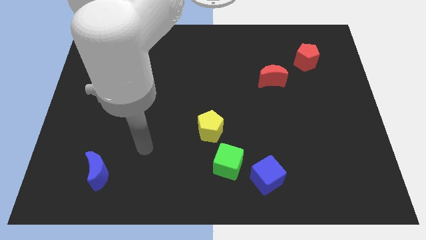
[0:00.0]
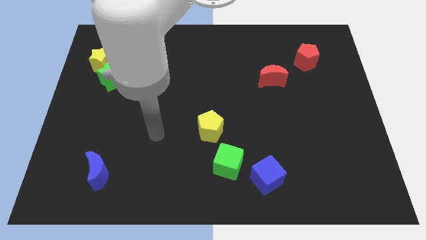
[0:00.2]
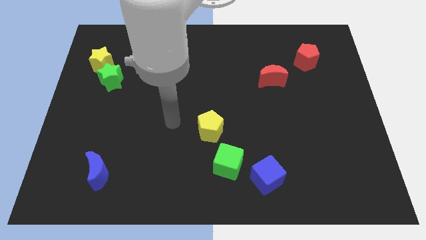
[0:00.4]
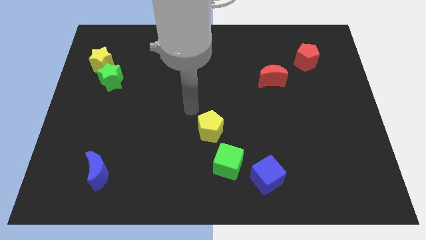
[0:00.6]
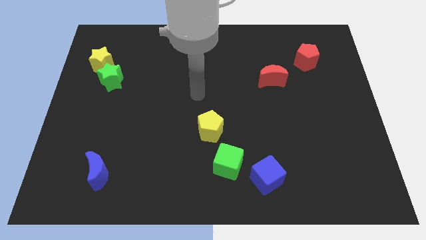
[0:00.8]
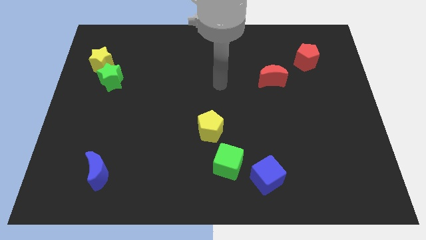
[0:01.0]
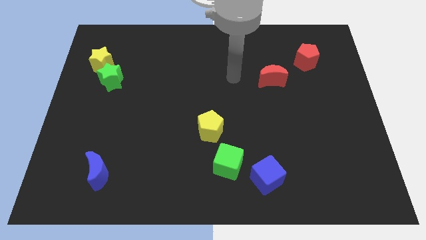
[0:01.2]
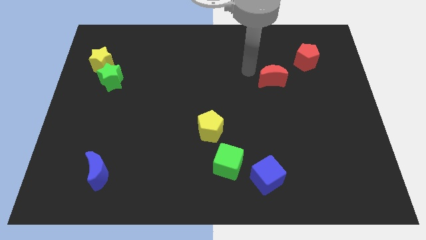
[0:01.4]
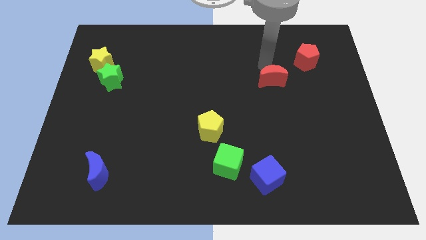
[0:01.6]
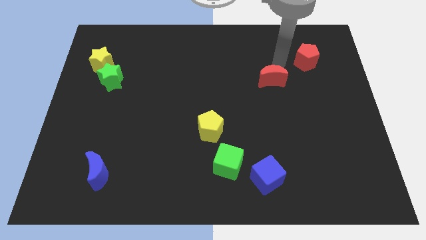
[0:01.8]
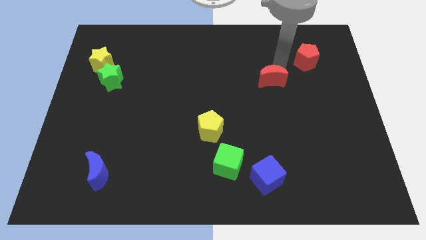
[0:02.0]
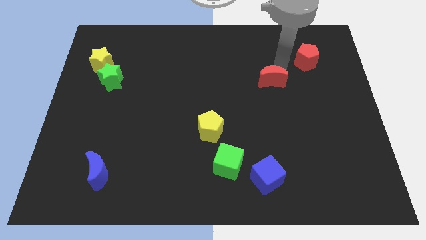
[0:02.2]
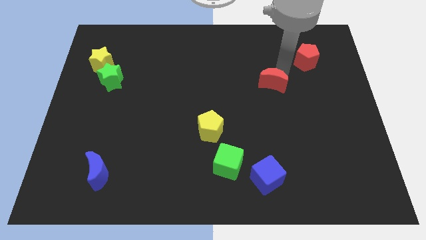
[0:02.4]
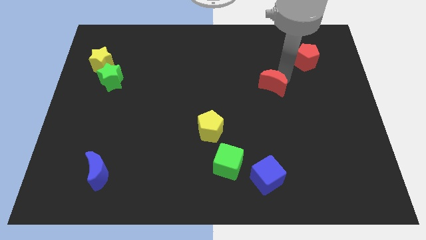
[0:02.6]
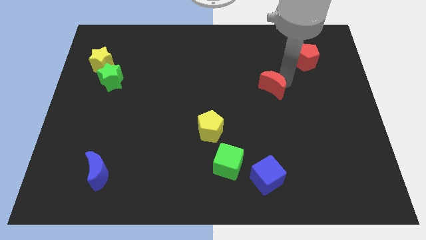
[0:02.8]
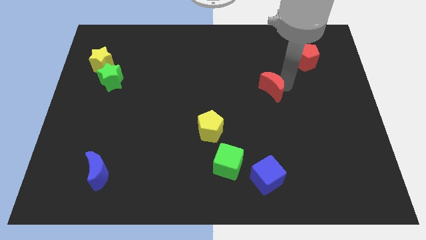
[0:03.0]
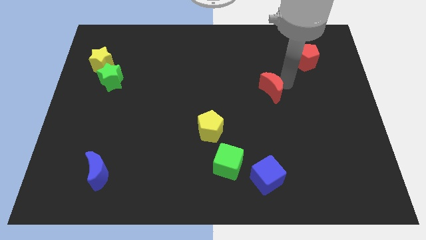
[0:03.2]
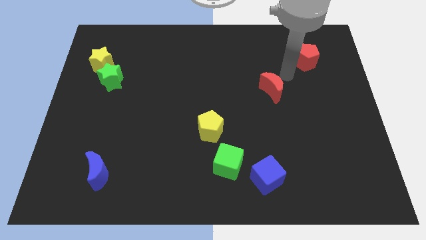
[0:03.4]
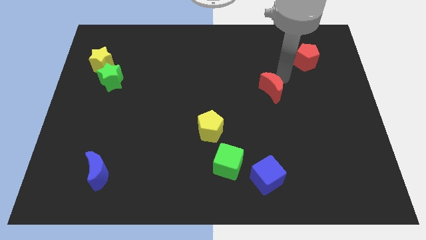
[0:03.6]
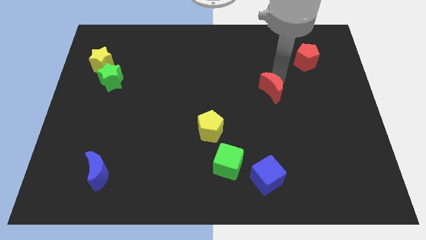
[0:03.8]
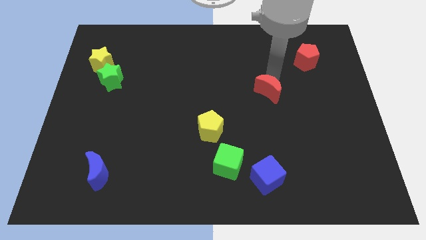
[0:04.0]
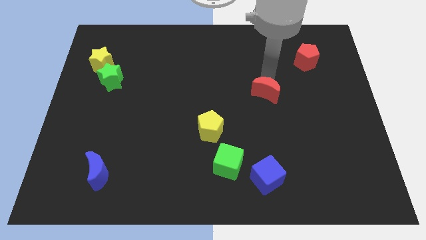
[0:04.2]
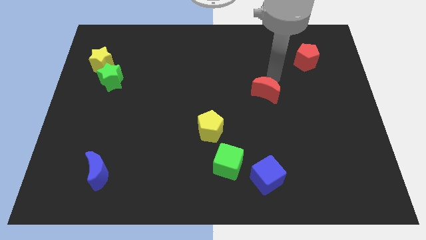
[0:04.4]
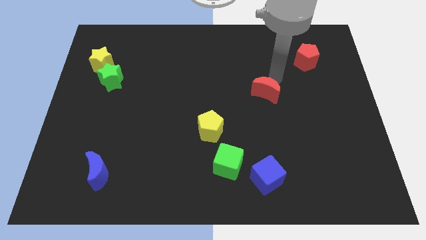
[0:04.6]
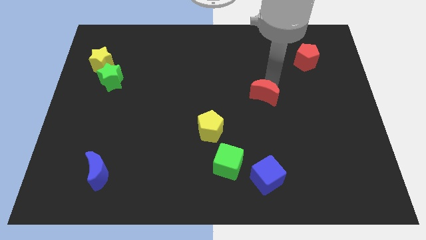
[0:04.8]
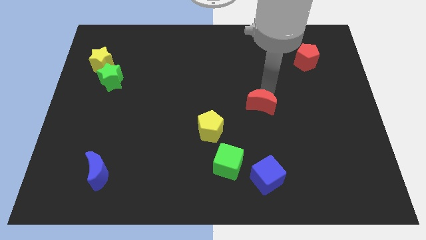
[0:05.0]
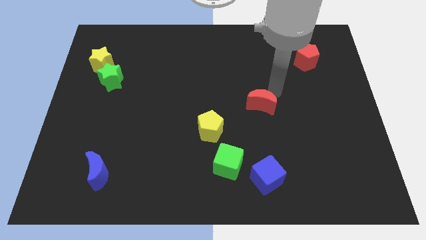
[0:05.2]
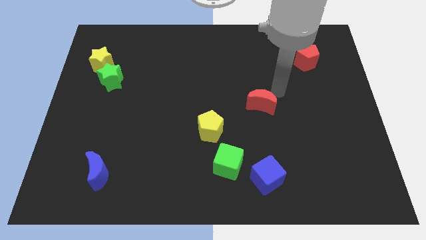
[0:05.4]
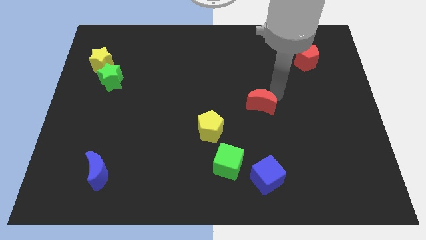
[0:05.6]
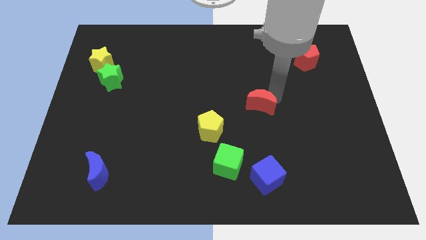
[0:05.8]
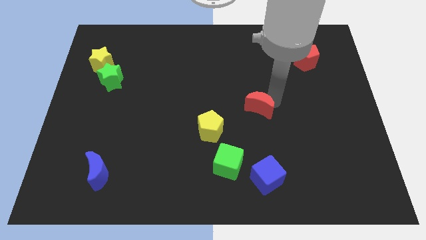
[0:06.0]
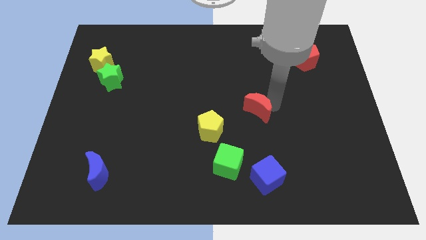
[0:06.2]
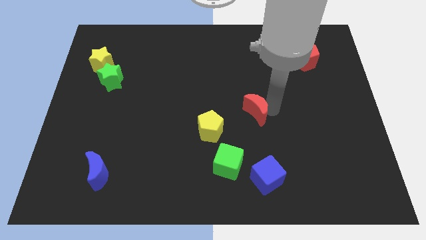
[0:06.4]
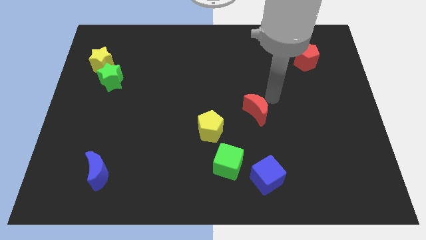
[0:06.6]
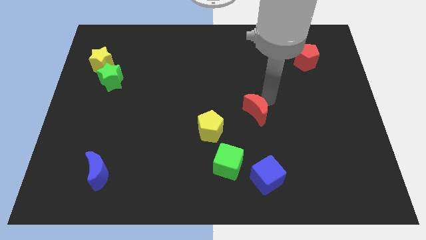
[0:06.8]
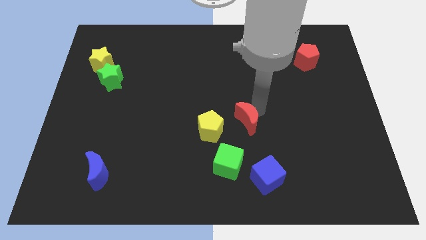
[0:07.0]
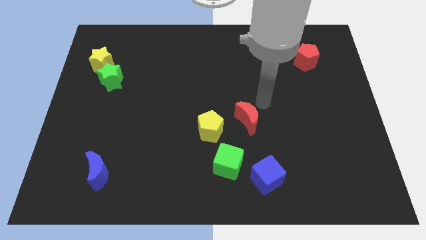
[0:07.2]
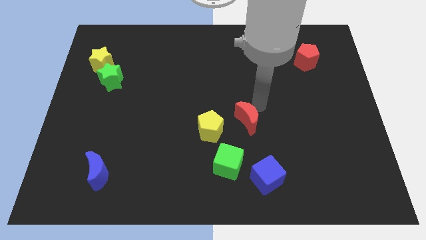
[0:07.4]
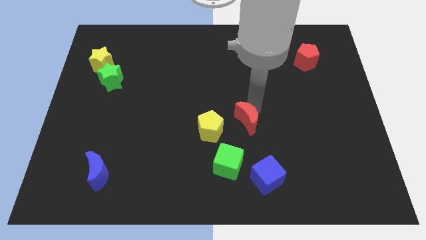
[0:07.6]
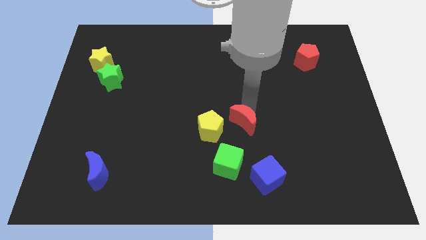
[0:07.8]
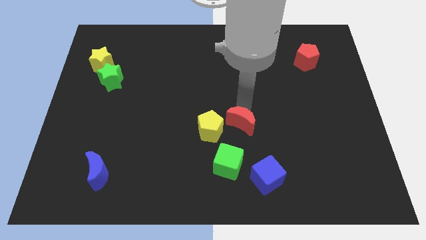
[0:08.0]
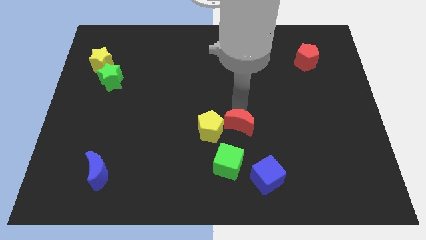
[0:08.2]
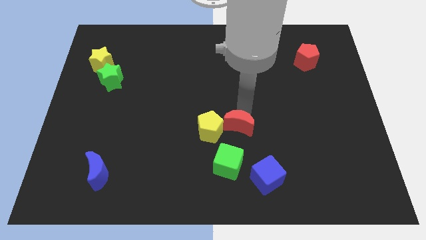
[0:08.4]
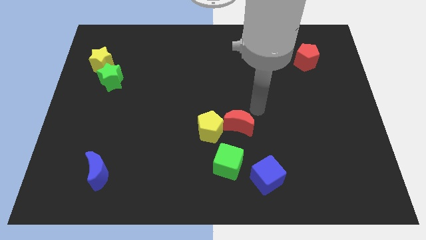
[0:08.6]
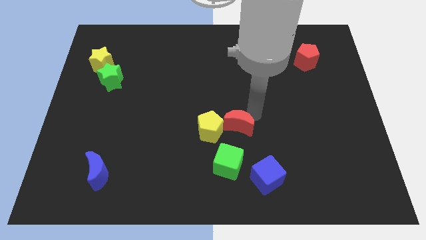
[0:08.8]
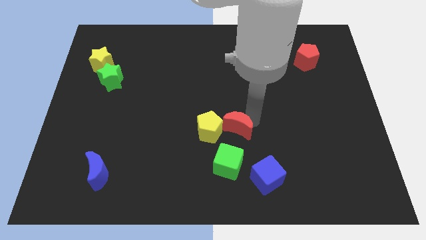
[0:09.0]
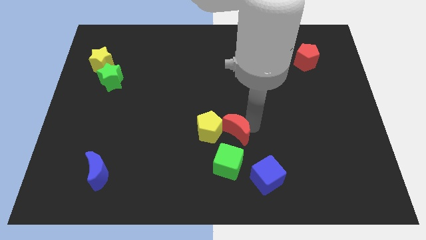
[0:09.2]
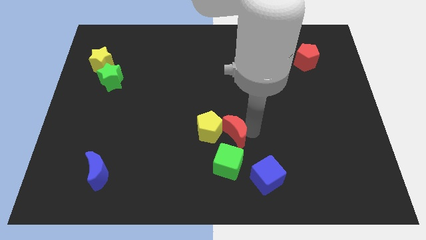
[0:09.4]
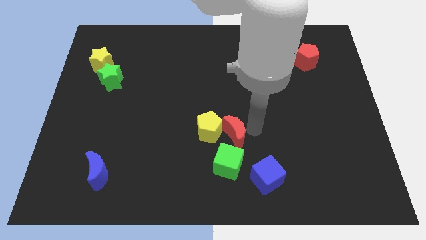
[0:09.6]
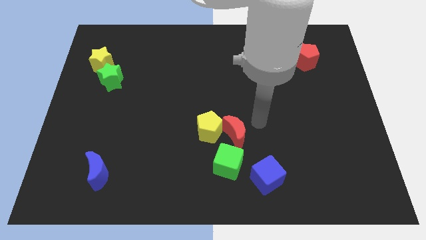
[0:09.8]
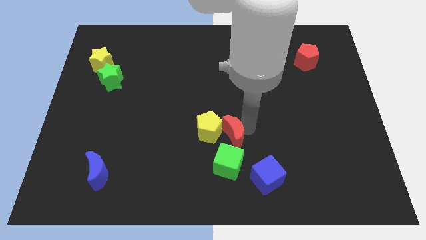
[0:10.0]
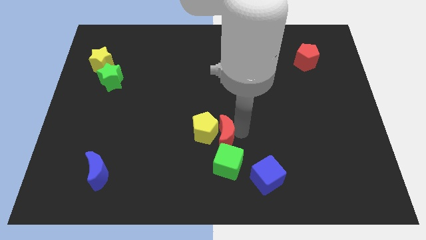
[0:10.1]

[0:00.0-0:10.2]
push the red moon diagonally downwards and to the left

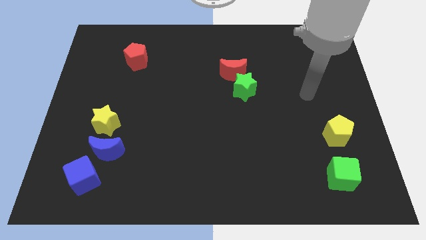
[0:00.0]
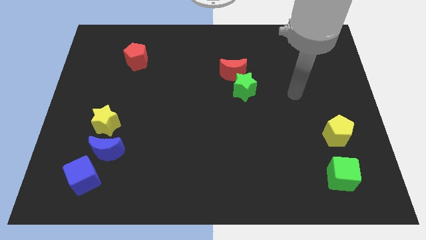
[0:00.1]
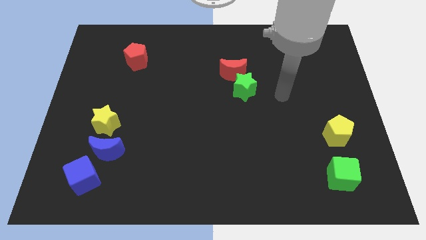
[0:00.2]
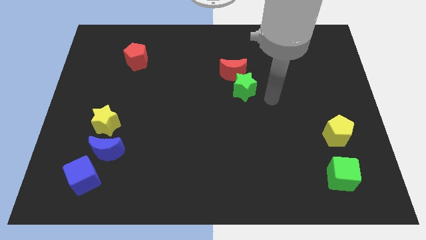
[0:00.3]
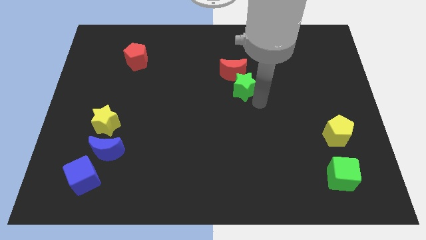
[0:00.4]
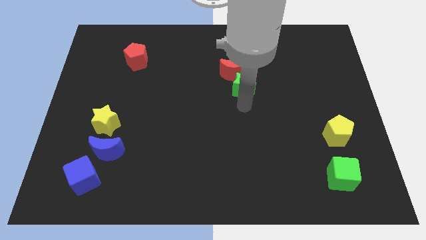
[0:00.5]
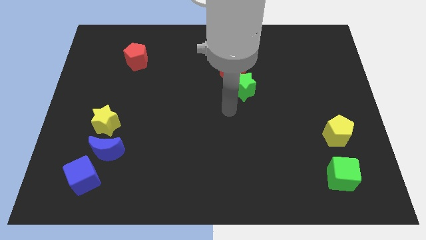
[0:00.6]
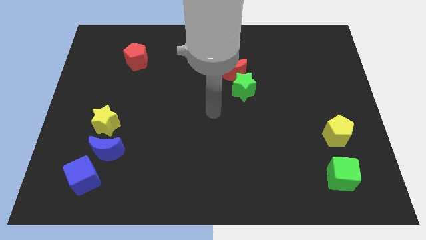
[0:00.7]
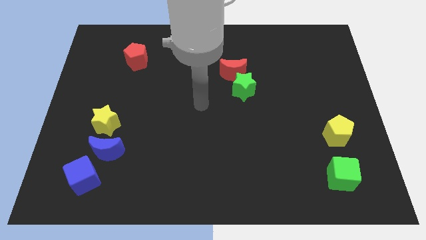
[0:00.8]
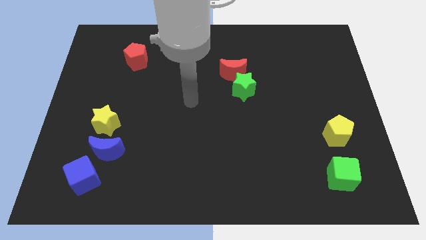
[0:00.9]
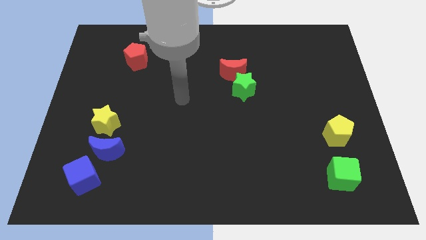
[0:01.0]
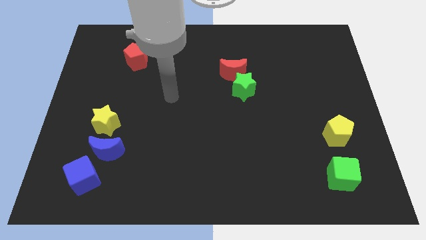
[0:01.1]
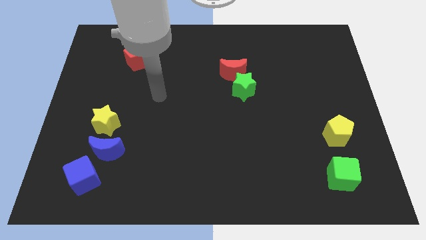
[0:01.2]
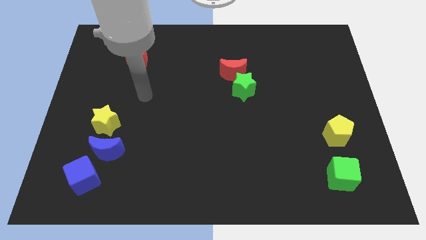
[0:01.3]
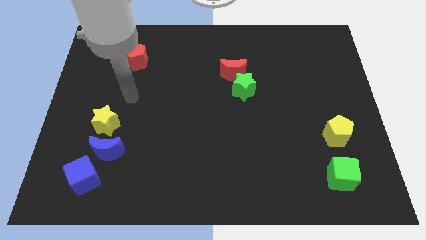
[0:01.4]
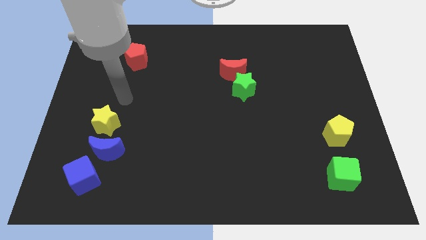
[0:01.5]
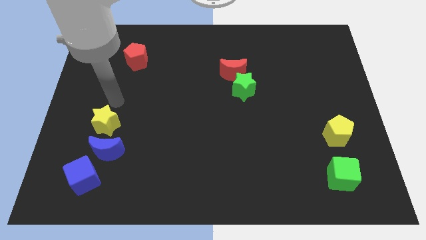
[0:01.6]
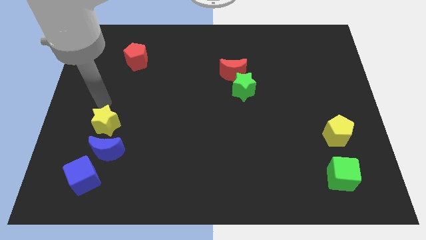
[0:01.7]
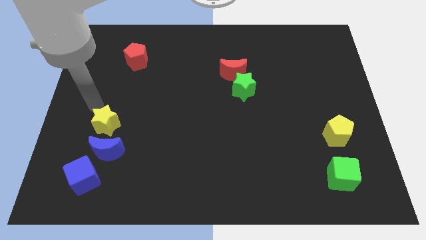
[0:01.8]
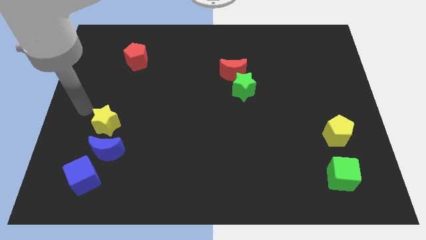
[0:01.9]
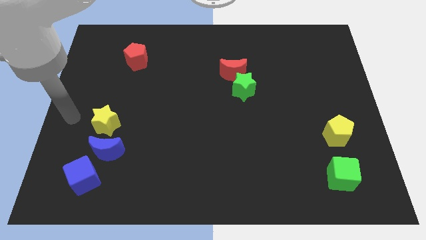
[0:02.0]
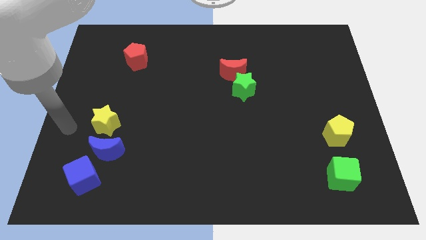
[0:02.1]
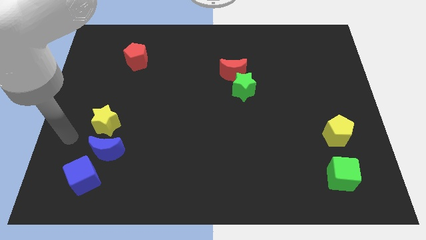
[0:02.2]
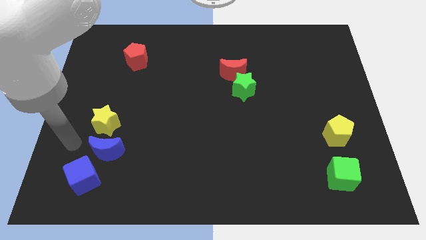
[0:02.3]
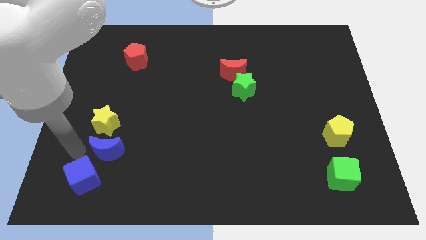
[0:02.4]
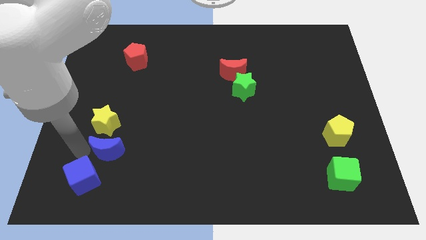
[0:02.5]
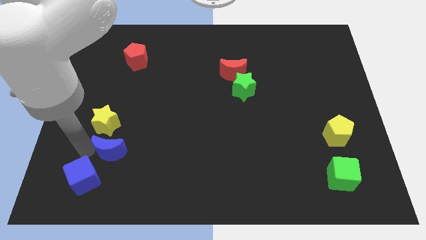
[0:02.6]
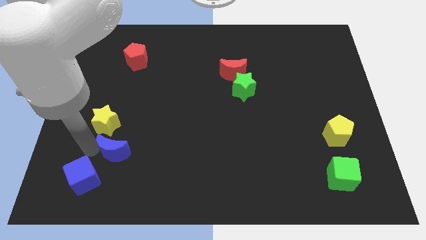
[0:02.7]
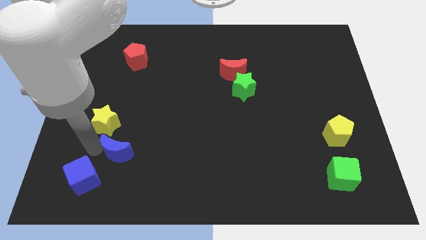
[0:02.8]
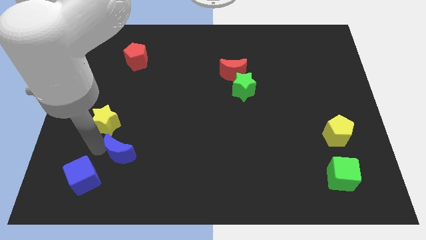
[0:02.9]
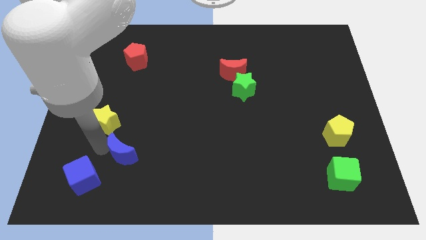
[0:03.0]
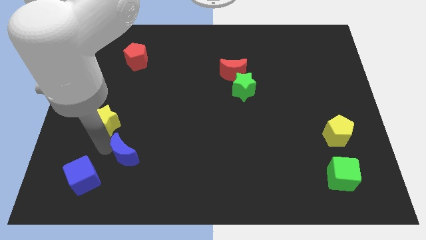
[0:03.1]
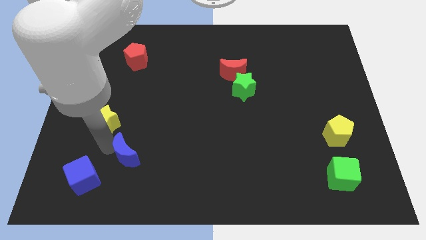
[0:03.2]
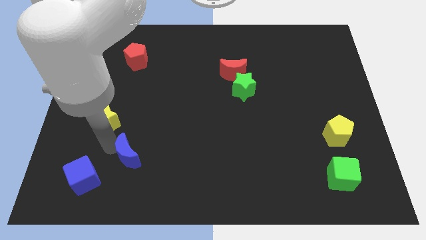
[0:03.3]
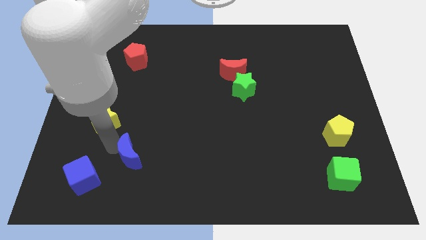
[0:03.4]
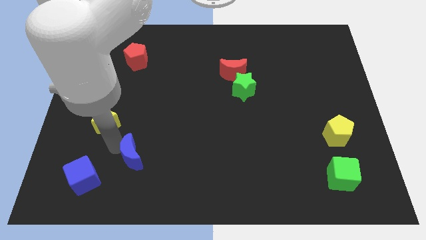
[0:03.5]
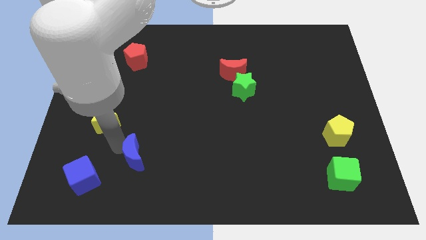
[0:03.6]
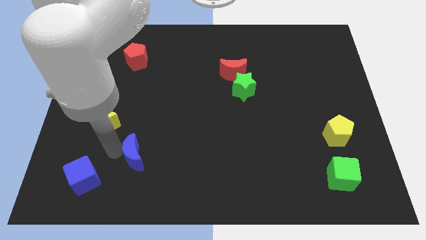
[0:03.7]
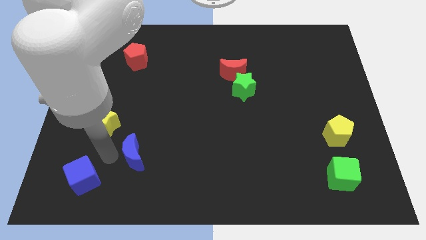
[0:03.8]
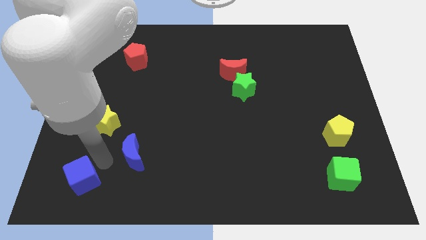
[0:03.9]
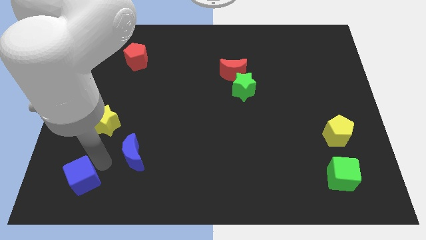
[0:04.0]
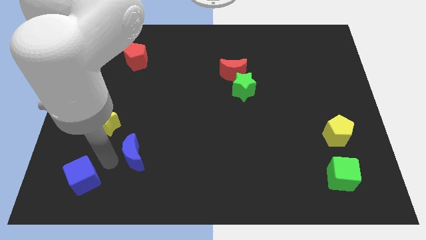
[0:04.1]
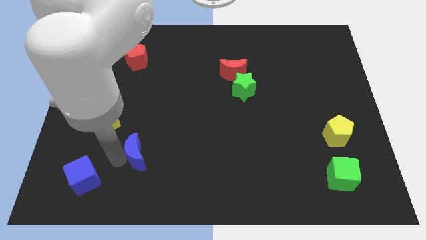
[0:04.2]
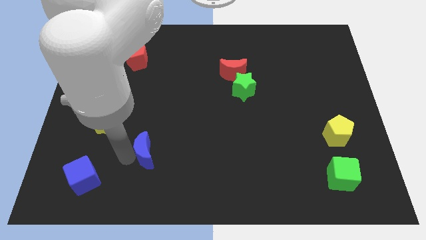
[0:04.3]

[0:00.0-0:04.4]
push the blue moon to the right a bit
